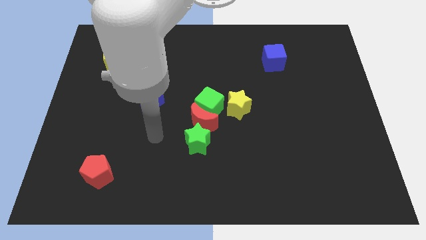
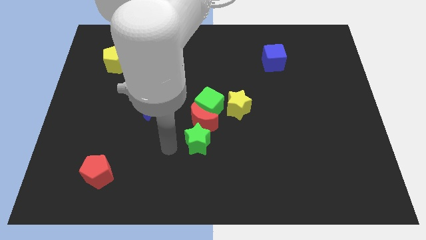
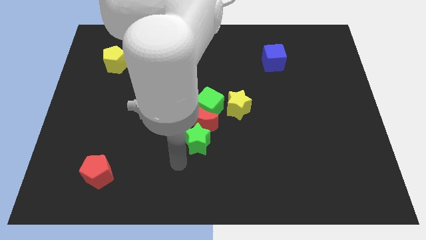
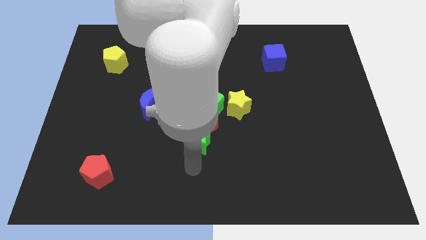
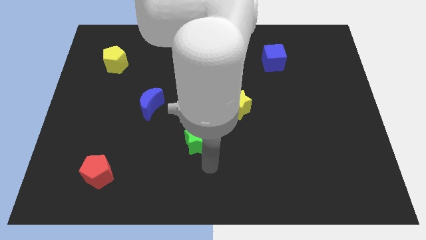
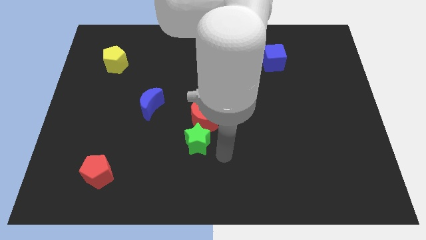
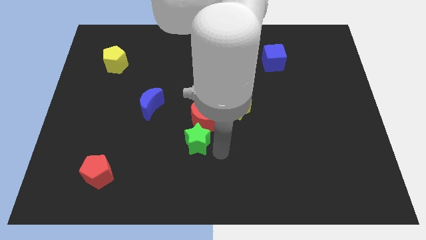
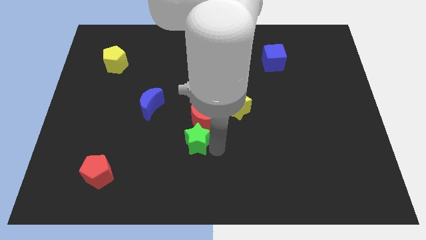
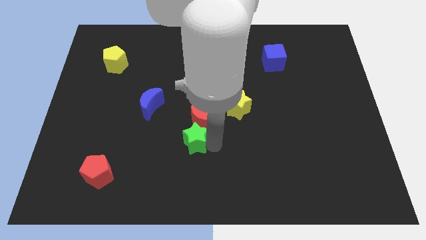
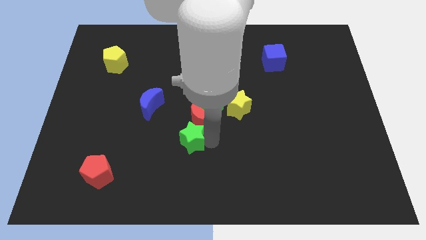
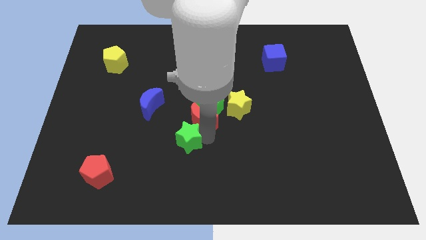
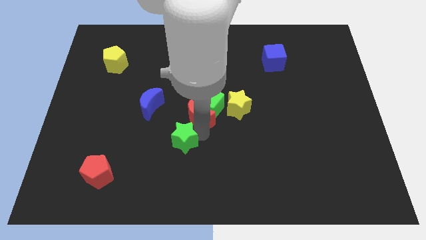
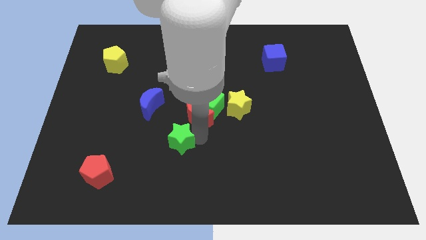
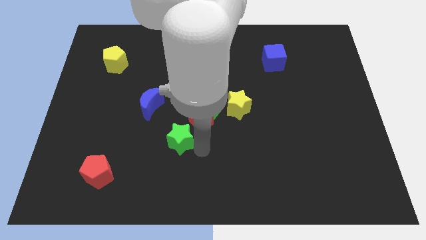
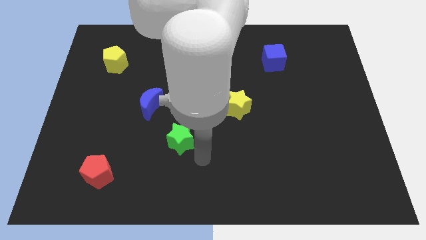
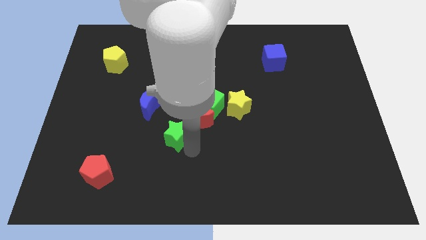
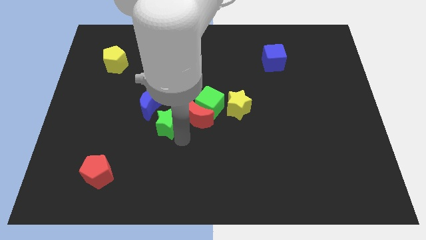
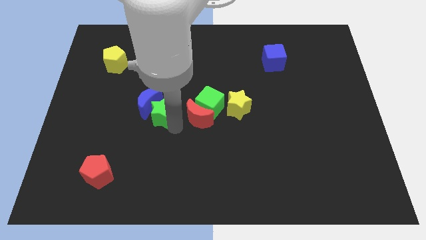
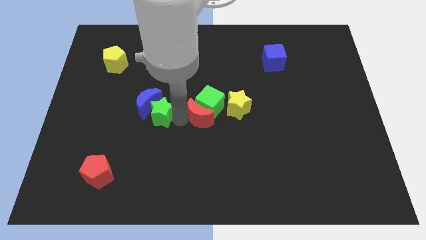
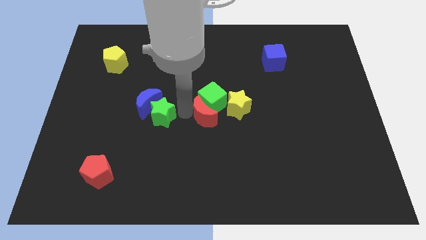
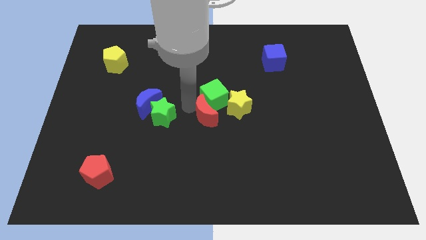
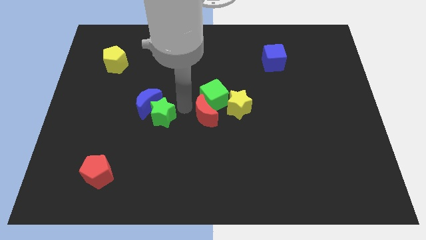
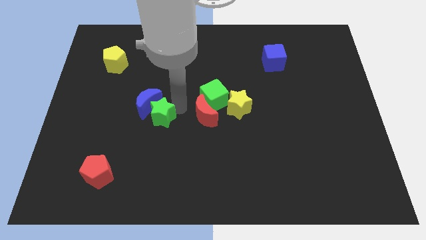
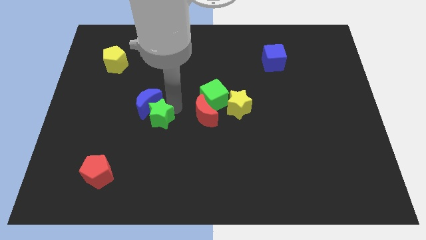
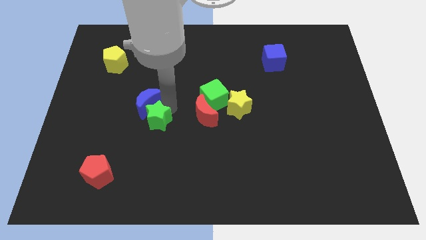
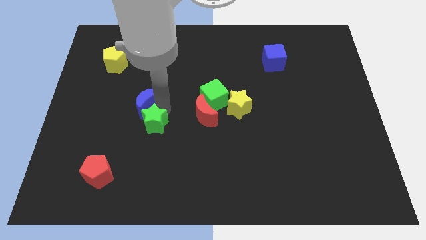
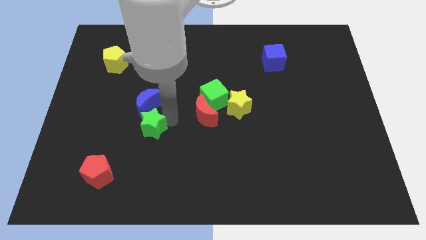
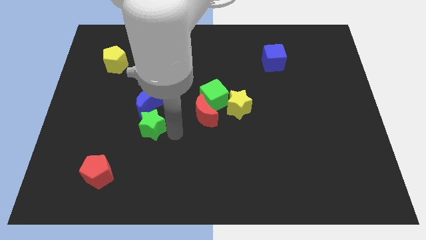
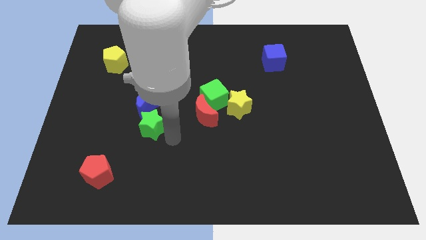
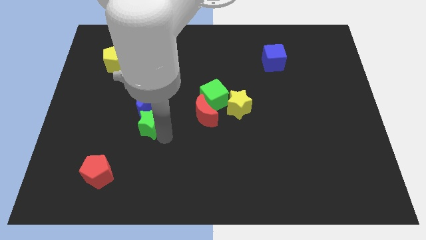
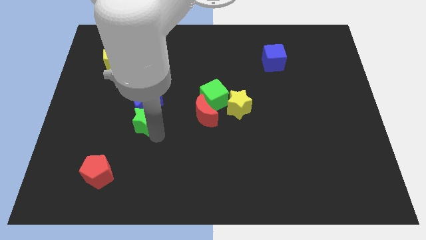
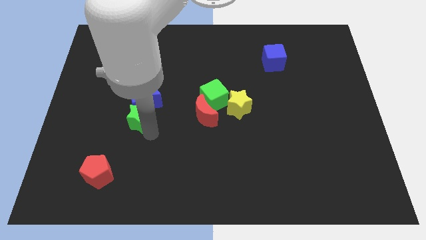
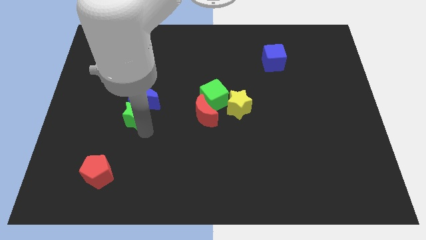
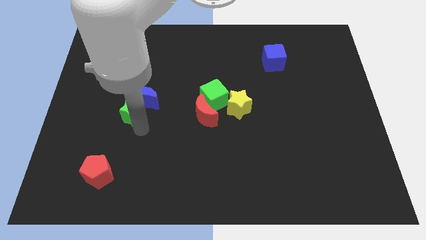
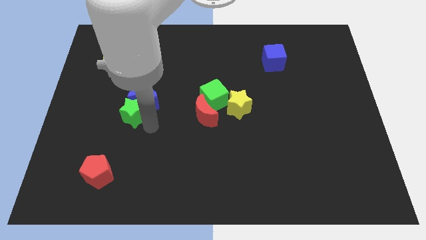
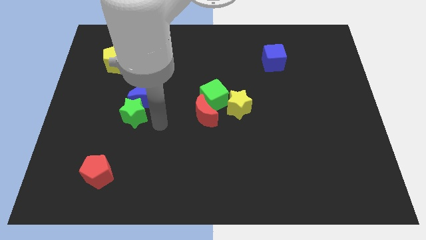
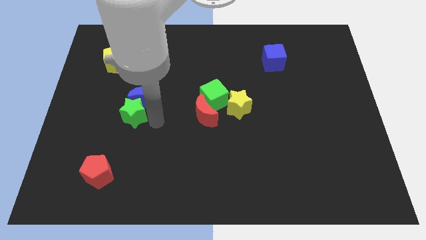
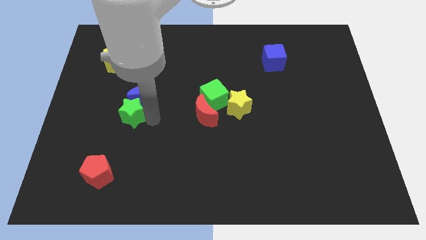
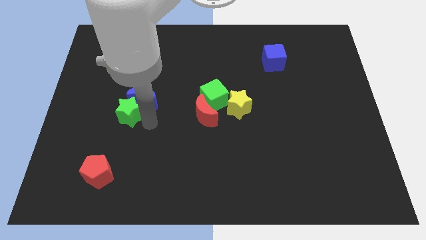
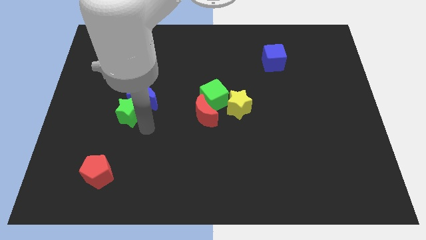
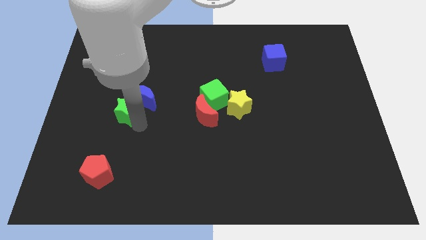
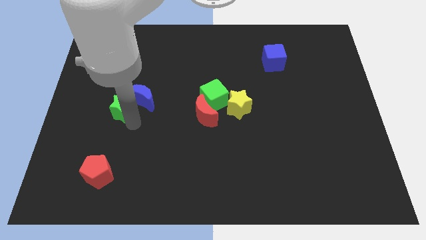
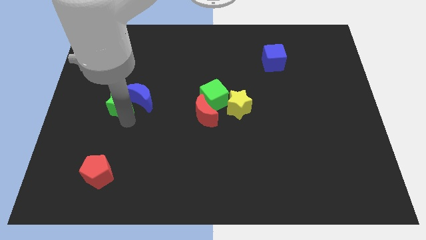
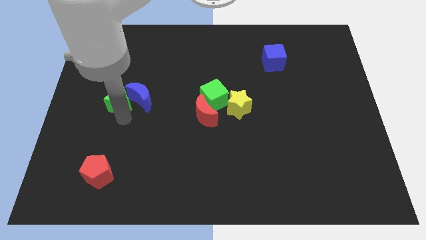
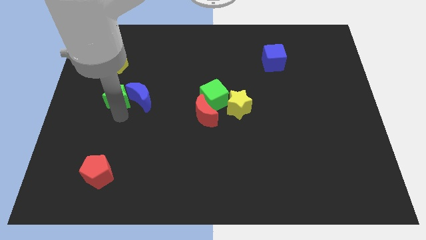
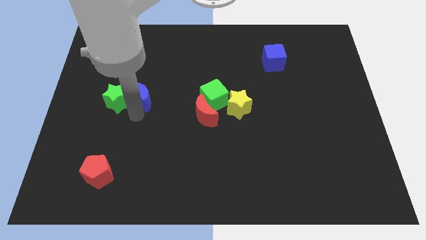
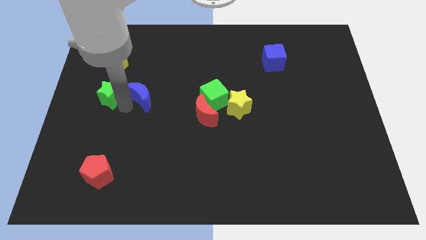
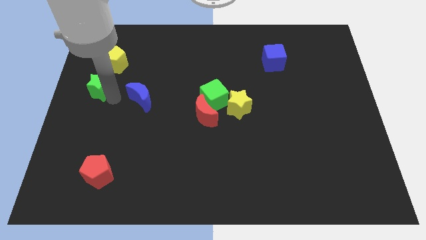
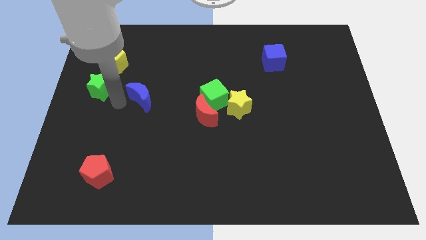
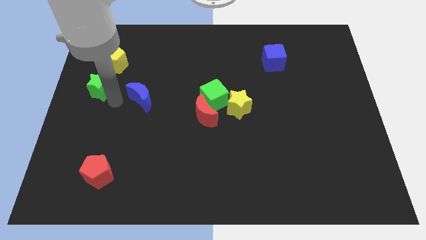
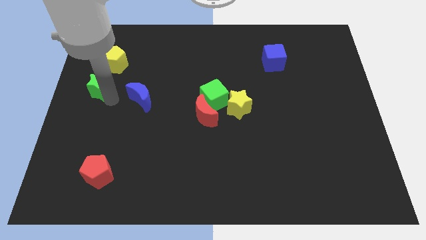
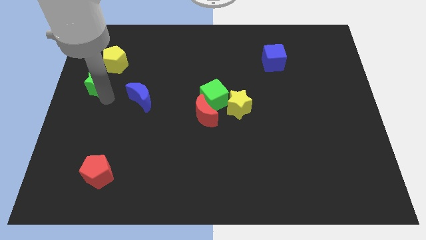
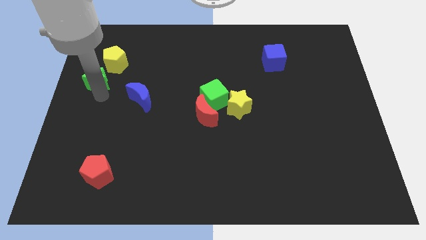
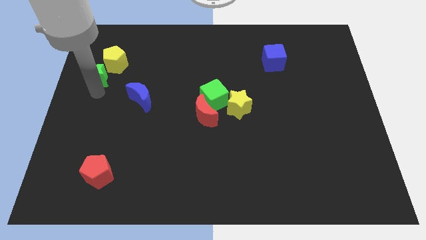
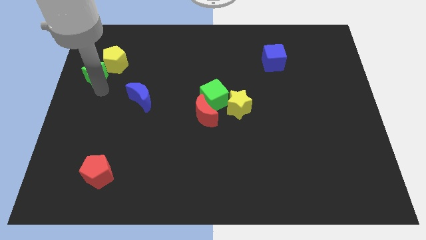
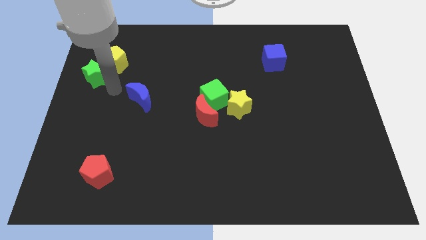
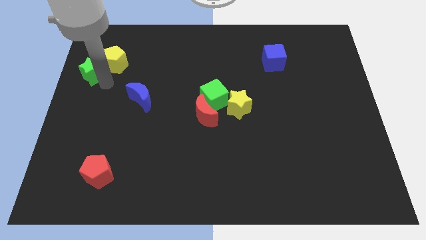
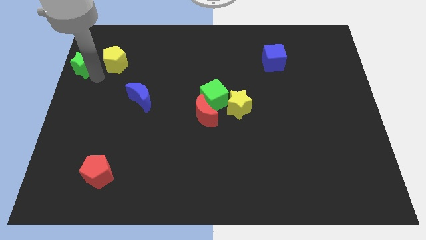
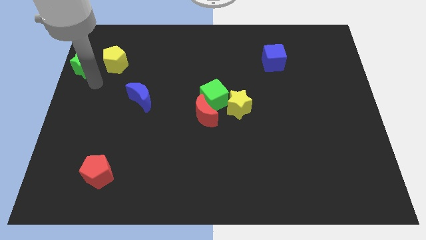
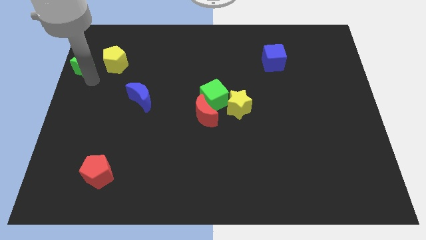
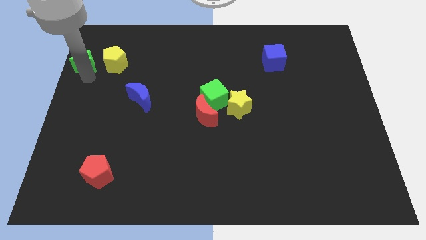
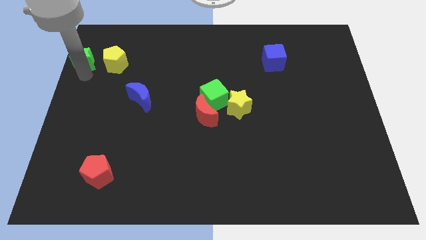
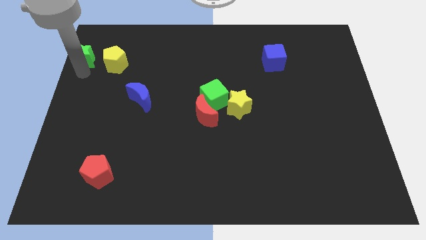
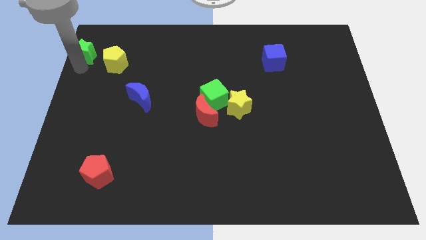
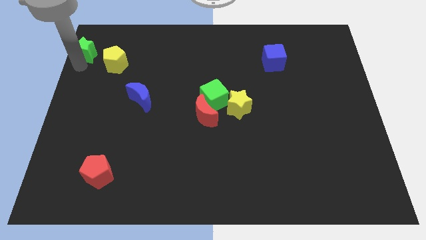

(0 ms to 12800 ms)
move the green star to the top left of the board
